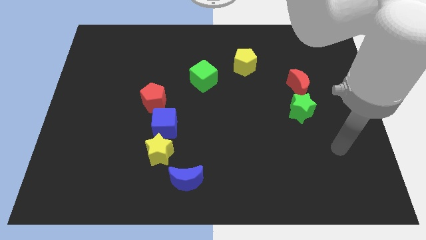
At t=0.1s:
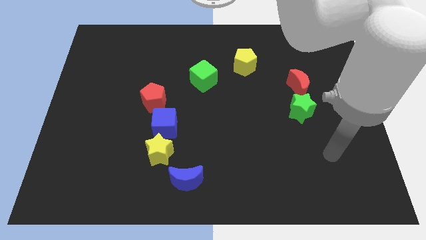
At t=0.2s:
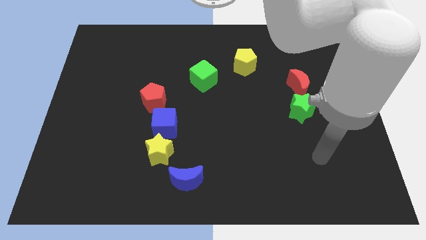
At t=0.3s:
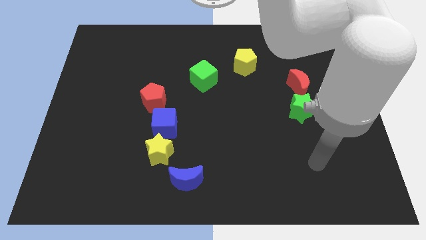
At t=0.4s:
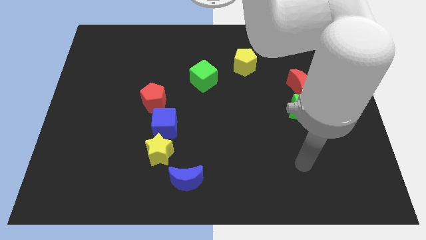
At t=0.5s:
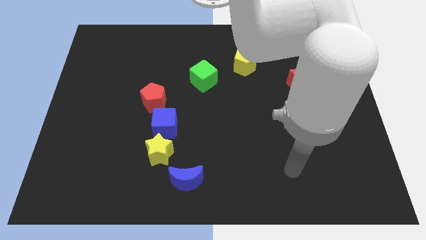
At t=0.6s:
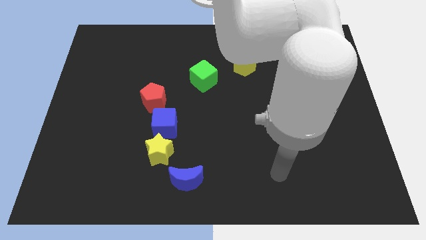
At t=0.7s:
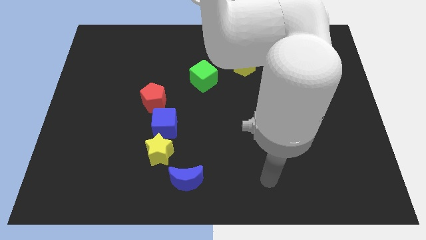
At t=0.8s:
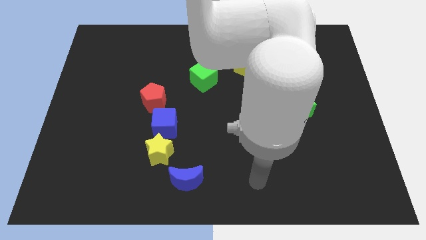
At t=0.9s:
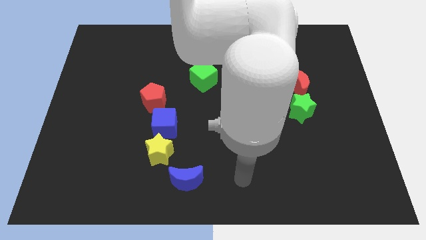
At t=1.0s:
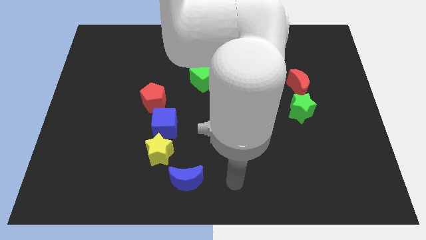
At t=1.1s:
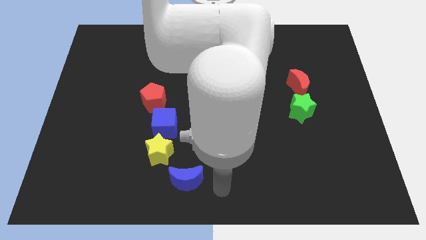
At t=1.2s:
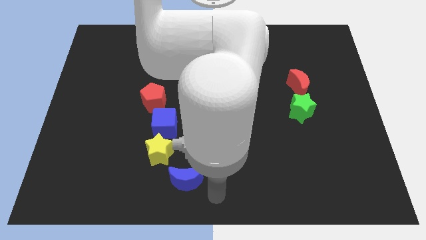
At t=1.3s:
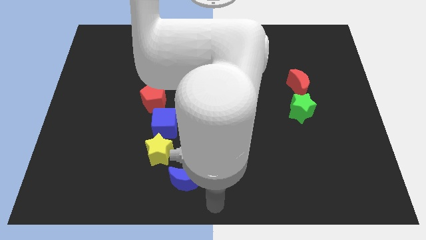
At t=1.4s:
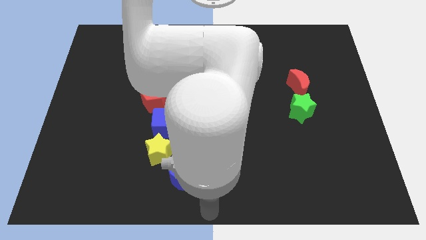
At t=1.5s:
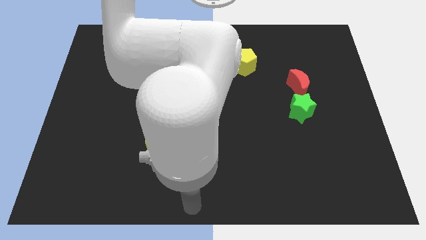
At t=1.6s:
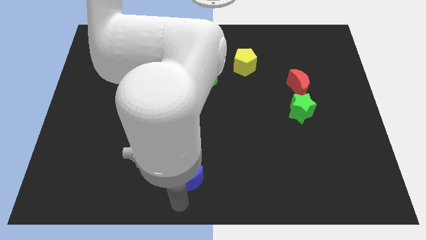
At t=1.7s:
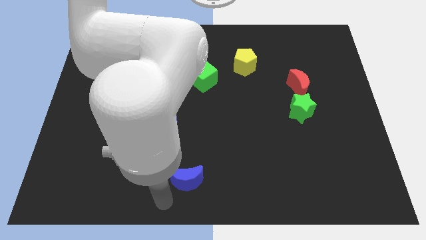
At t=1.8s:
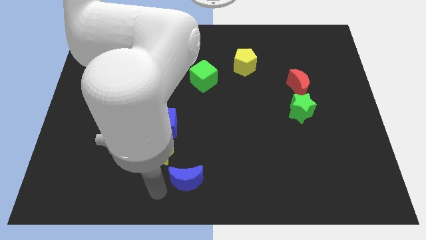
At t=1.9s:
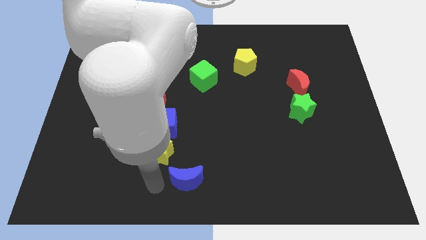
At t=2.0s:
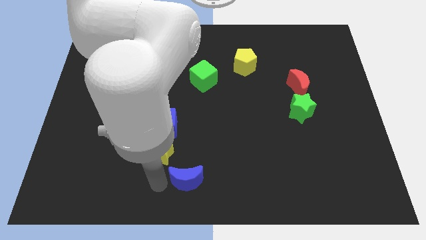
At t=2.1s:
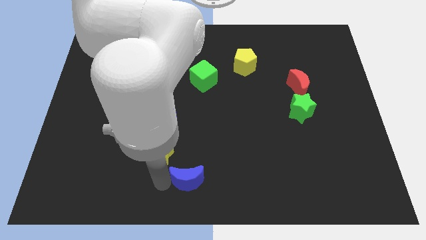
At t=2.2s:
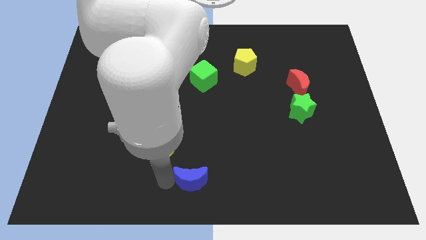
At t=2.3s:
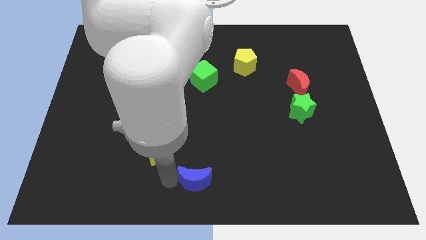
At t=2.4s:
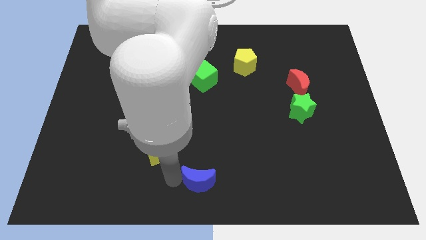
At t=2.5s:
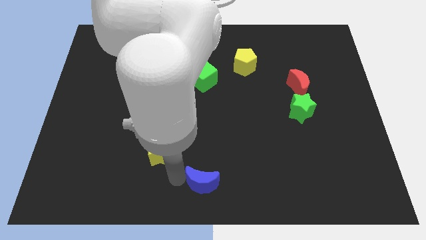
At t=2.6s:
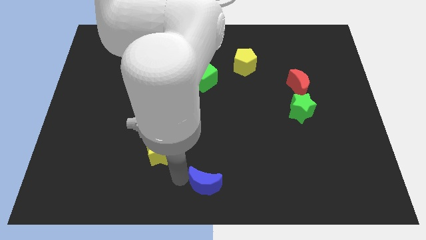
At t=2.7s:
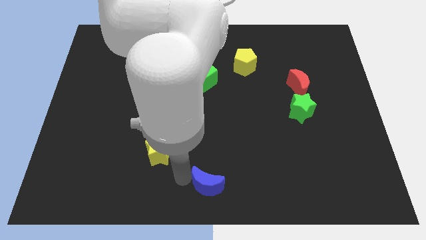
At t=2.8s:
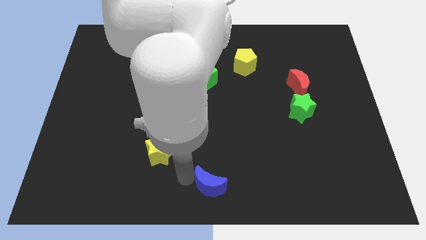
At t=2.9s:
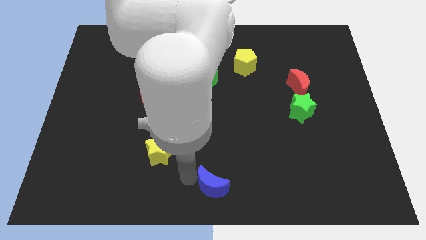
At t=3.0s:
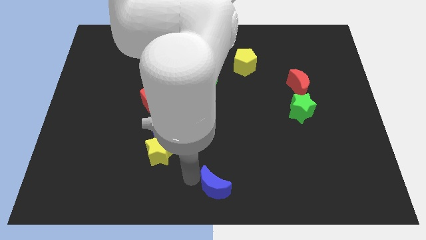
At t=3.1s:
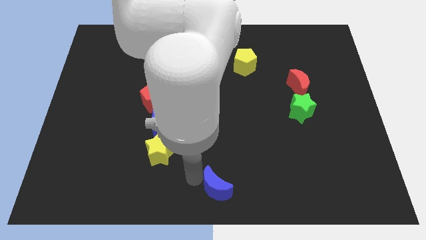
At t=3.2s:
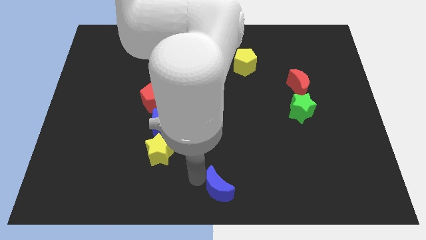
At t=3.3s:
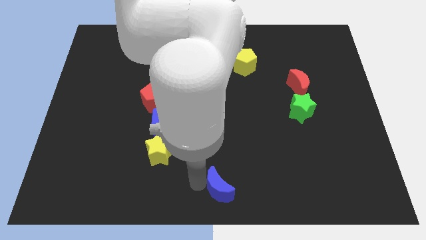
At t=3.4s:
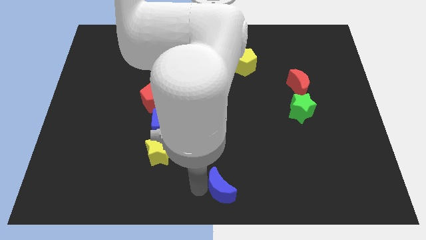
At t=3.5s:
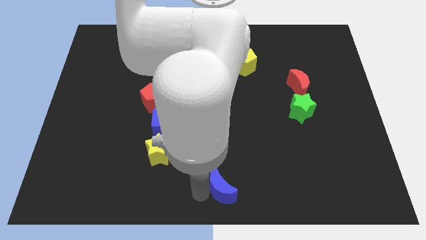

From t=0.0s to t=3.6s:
slide the blue moon right a little

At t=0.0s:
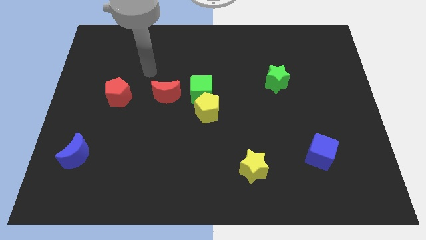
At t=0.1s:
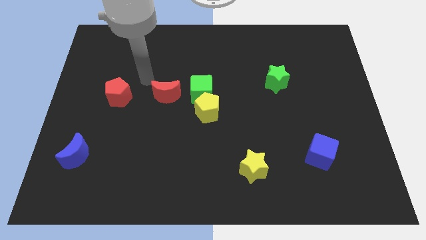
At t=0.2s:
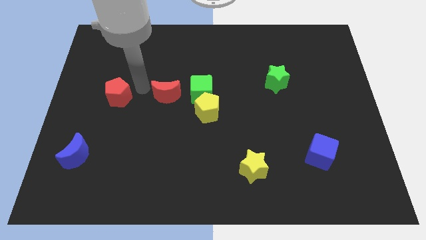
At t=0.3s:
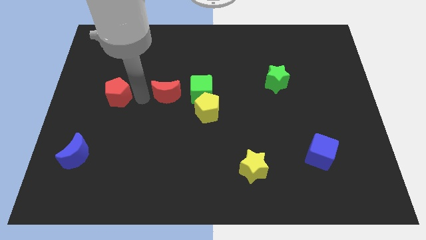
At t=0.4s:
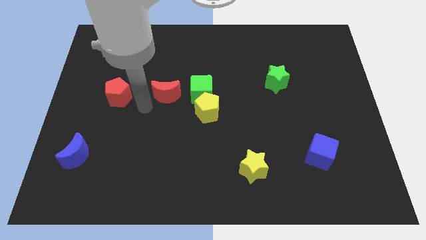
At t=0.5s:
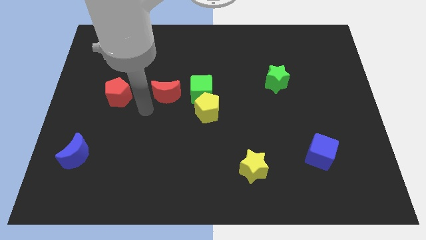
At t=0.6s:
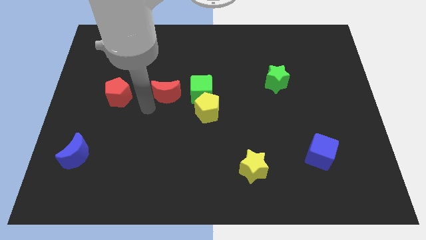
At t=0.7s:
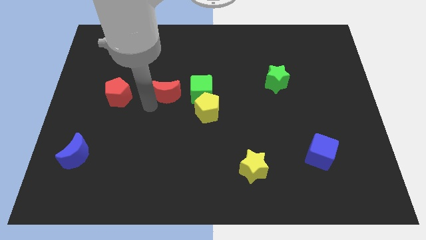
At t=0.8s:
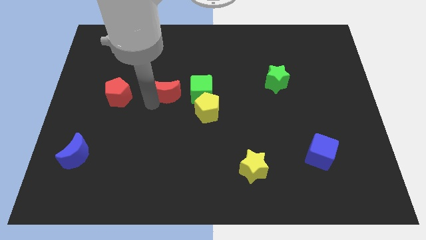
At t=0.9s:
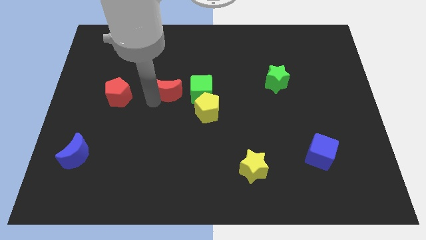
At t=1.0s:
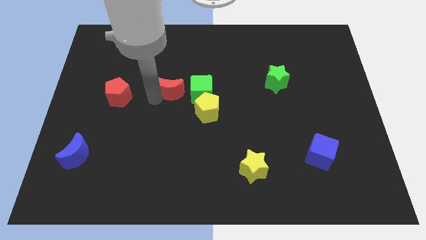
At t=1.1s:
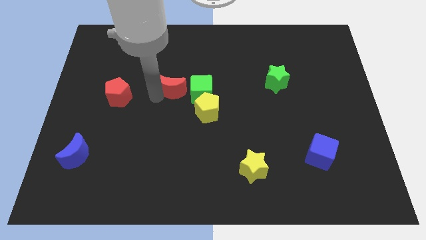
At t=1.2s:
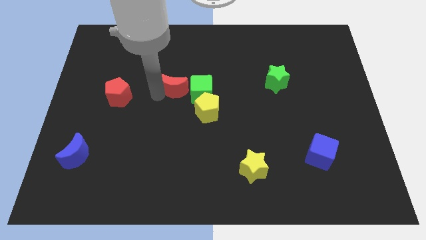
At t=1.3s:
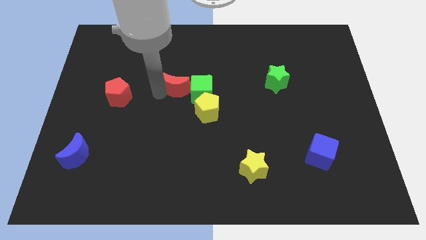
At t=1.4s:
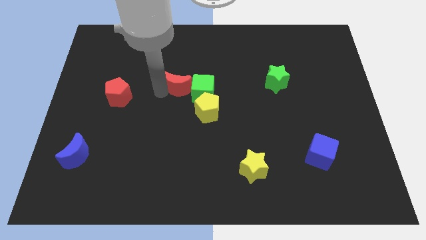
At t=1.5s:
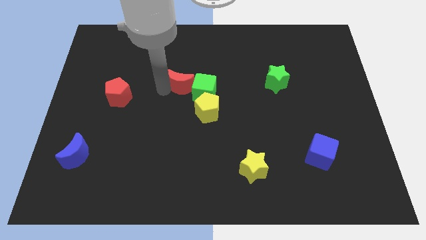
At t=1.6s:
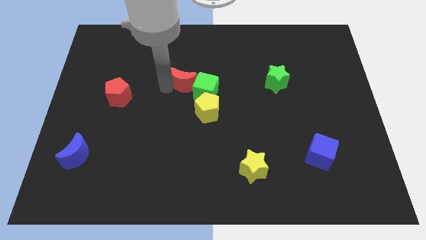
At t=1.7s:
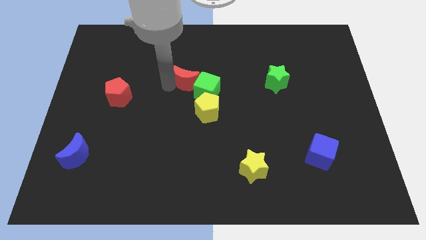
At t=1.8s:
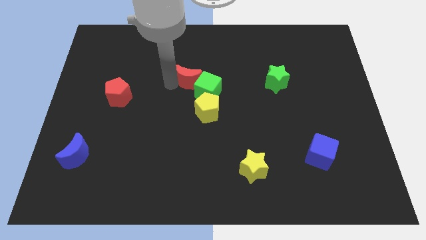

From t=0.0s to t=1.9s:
slightly push the red moon diagonally upwards and right

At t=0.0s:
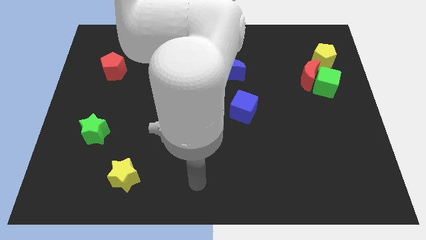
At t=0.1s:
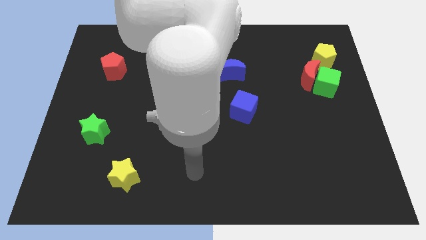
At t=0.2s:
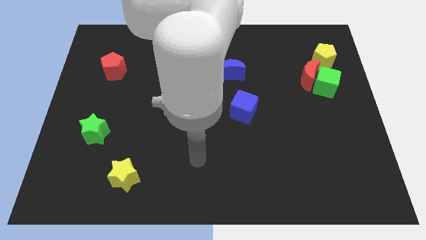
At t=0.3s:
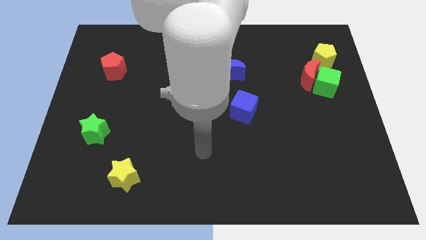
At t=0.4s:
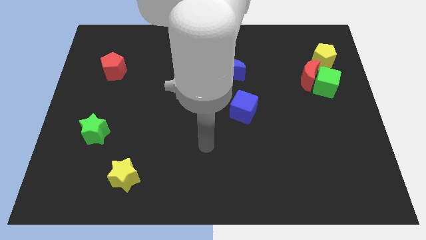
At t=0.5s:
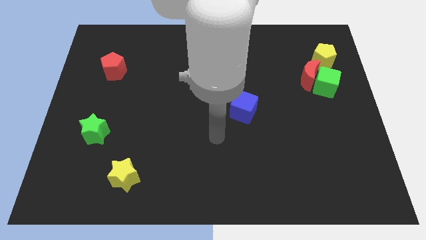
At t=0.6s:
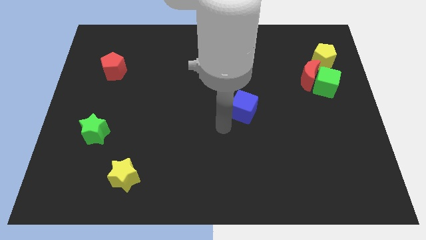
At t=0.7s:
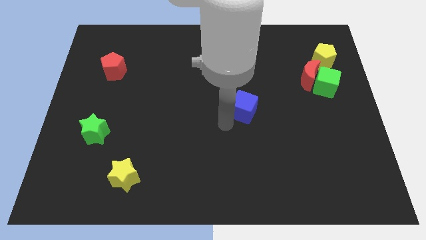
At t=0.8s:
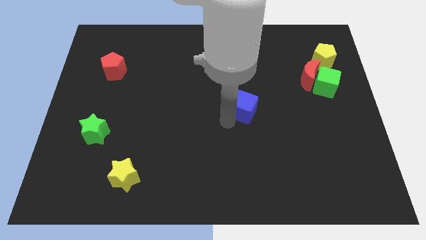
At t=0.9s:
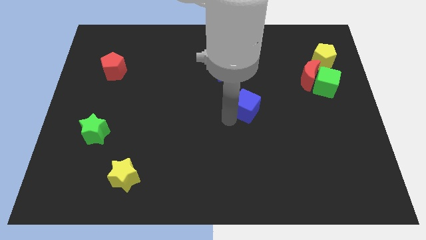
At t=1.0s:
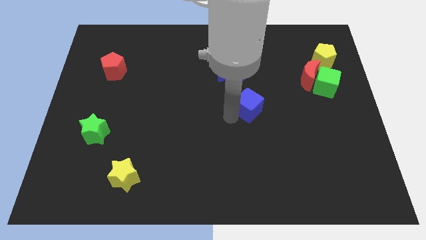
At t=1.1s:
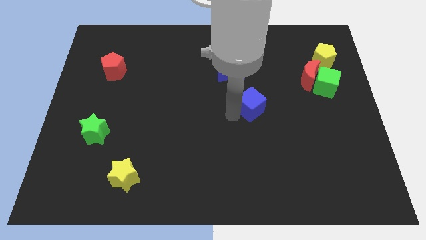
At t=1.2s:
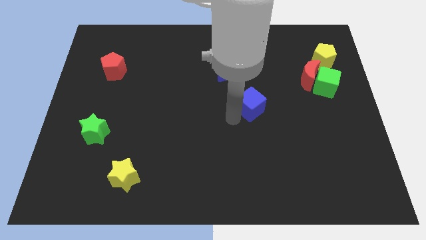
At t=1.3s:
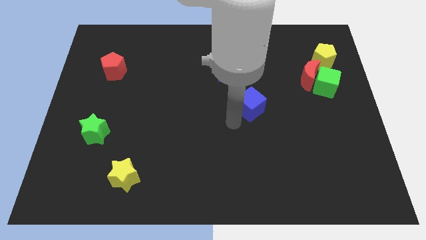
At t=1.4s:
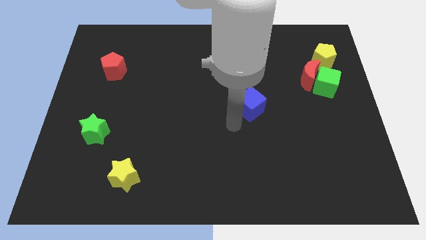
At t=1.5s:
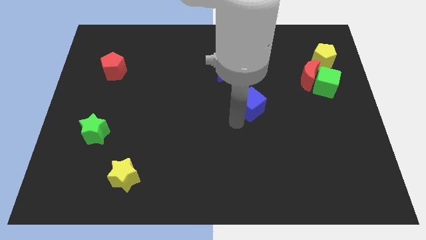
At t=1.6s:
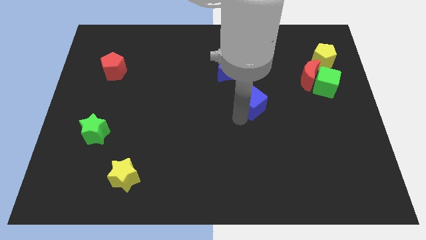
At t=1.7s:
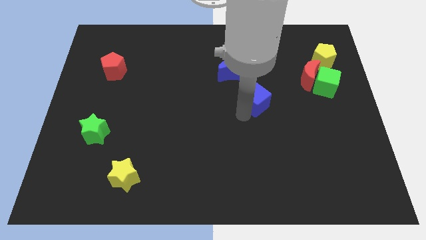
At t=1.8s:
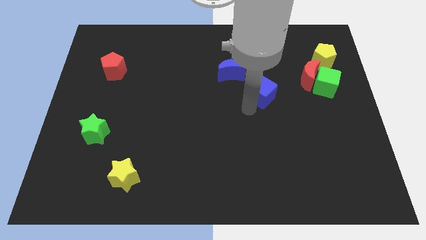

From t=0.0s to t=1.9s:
slide the blue cube up and to the right diagonally a little

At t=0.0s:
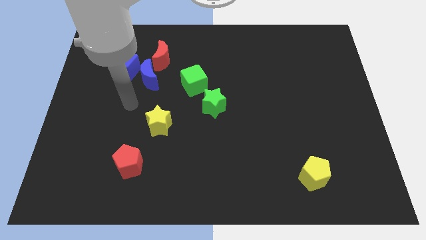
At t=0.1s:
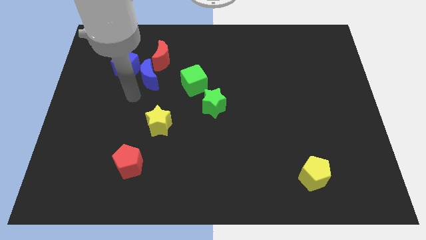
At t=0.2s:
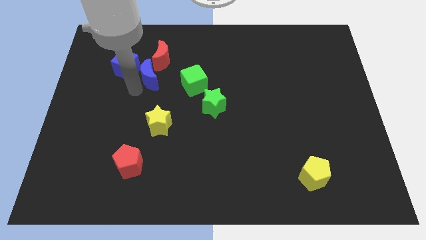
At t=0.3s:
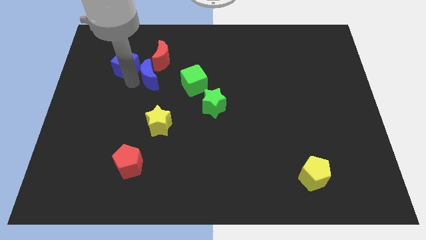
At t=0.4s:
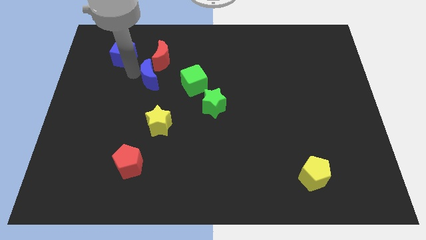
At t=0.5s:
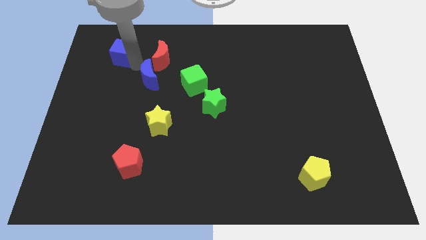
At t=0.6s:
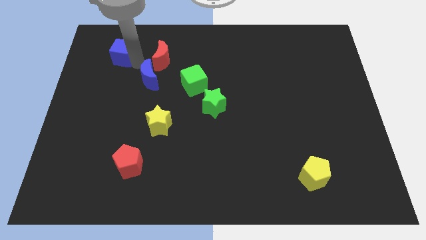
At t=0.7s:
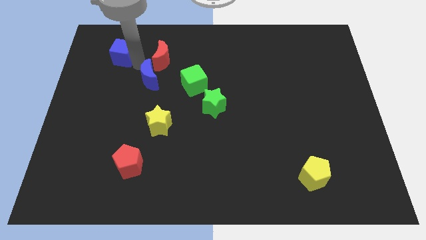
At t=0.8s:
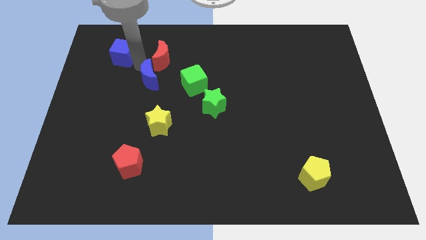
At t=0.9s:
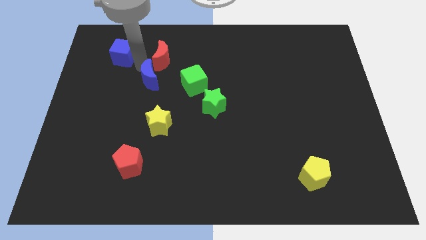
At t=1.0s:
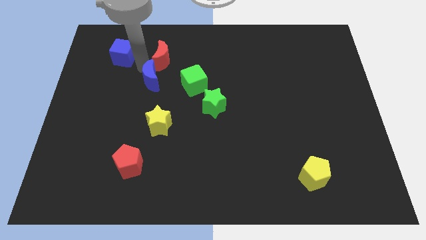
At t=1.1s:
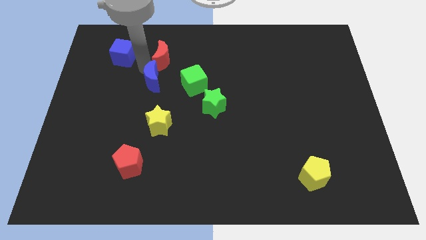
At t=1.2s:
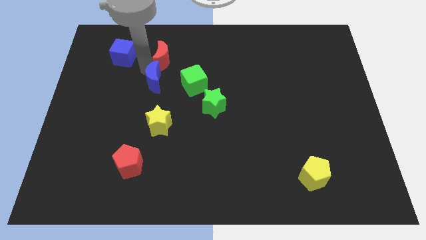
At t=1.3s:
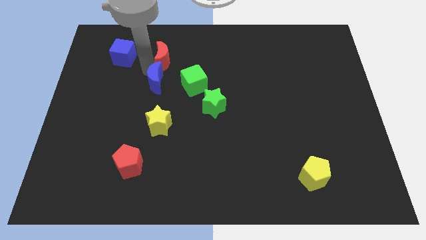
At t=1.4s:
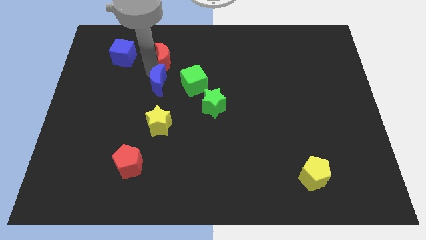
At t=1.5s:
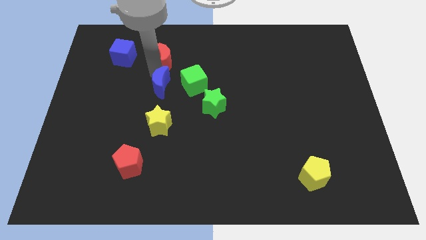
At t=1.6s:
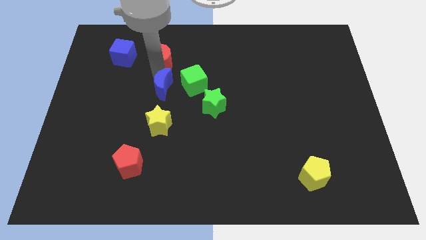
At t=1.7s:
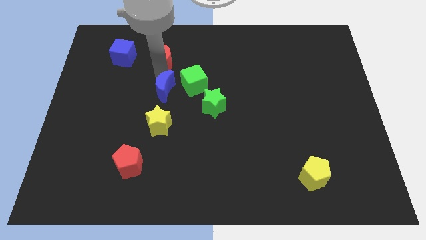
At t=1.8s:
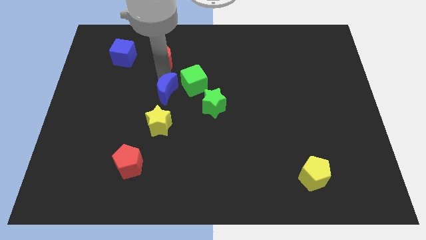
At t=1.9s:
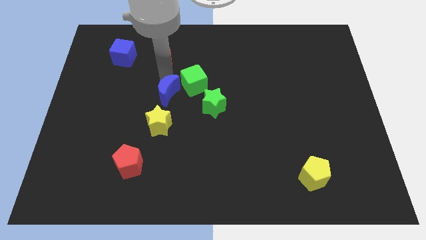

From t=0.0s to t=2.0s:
move the blue moon a little downwards and right
